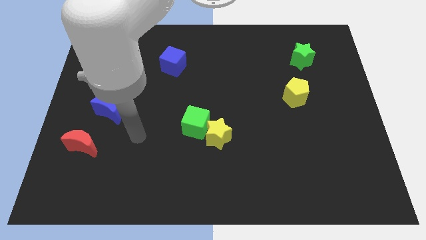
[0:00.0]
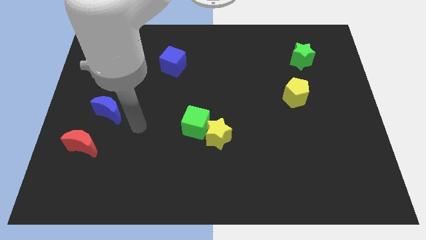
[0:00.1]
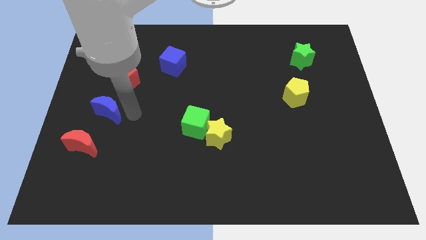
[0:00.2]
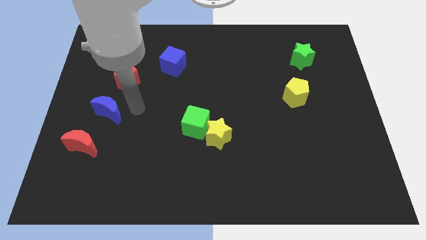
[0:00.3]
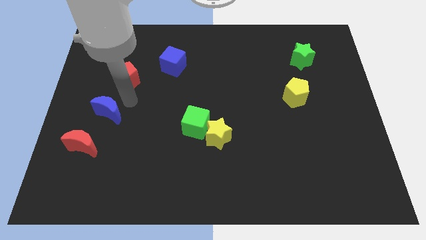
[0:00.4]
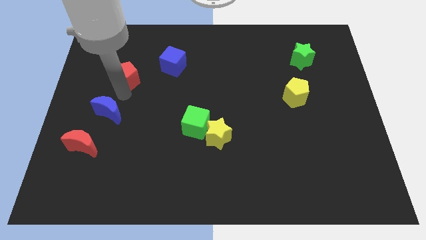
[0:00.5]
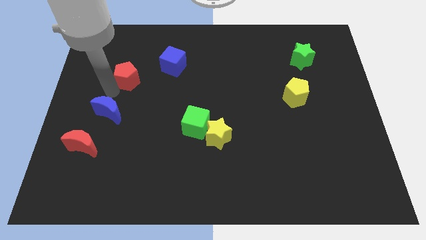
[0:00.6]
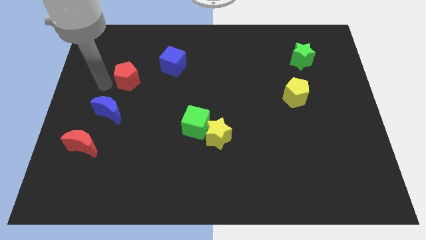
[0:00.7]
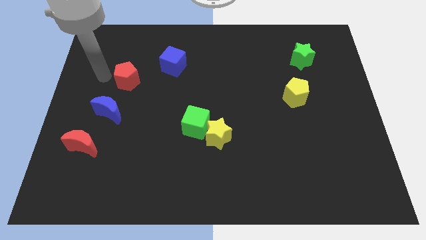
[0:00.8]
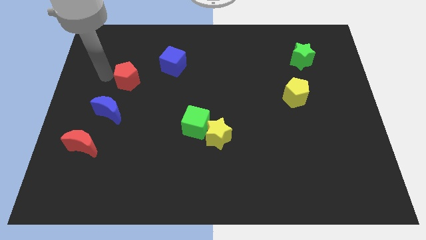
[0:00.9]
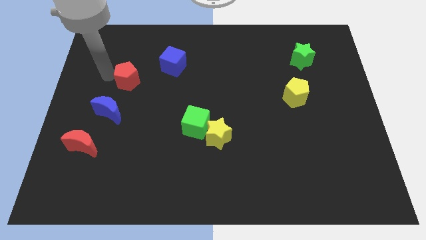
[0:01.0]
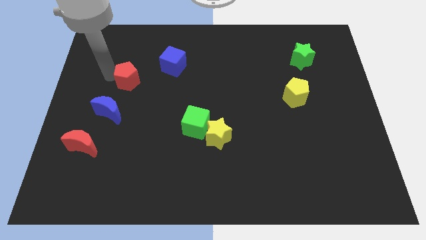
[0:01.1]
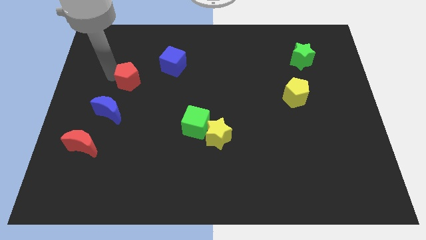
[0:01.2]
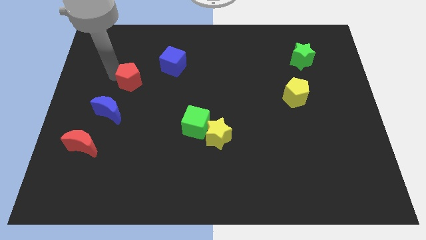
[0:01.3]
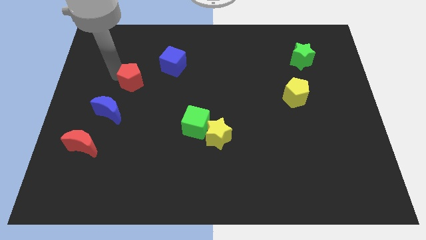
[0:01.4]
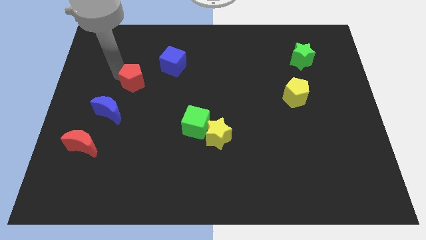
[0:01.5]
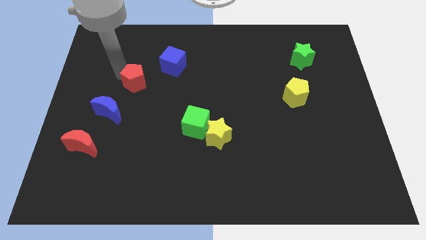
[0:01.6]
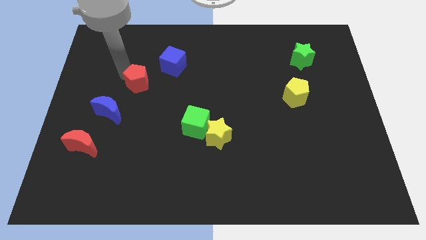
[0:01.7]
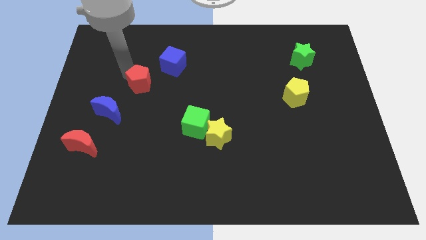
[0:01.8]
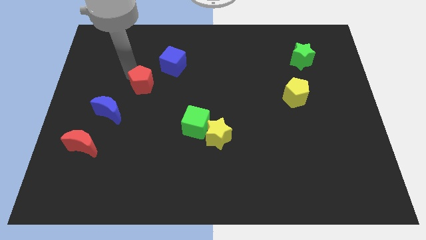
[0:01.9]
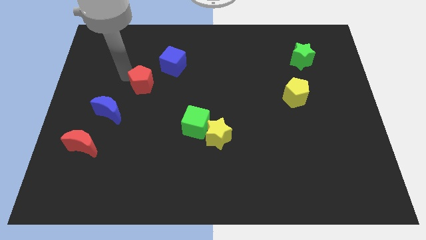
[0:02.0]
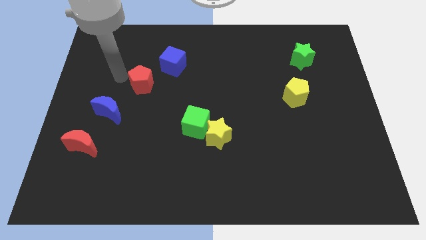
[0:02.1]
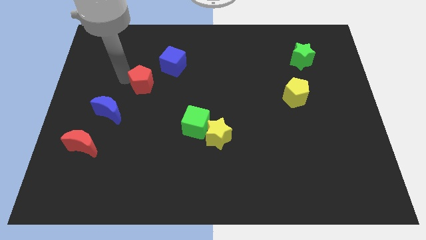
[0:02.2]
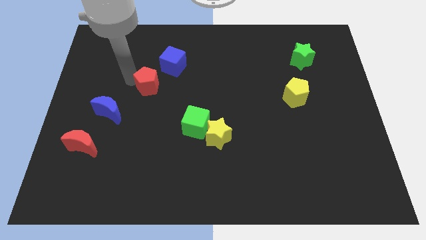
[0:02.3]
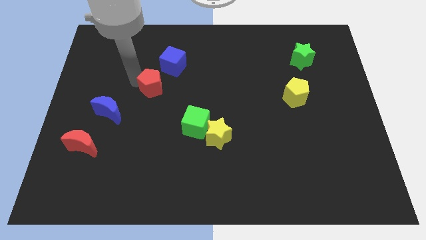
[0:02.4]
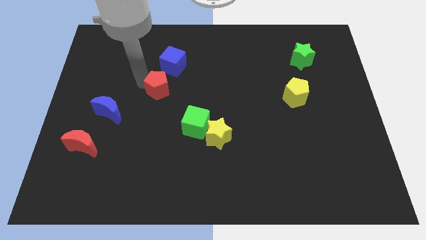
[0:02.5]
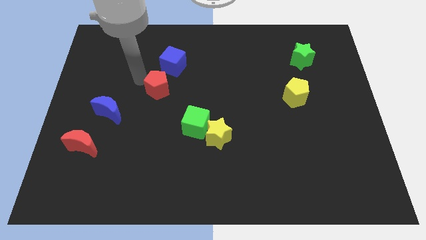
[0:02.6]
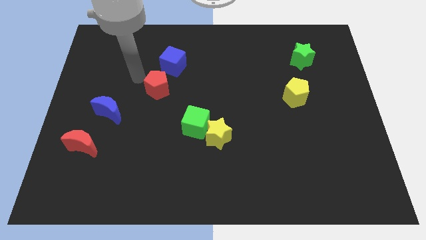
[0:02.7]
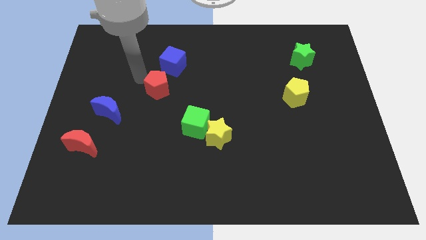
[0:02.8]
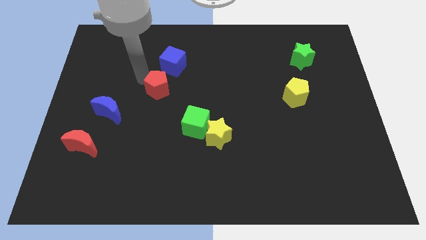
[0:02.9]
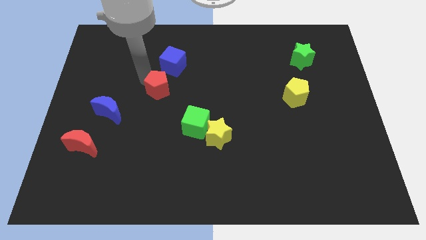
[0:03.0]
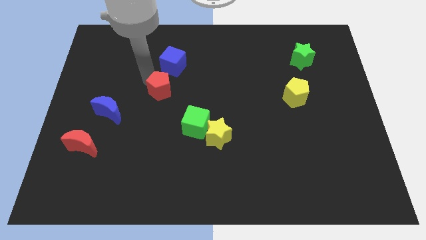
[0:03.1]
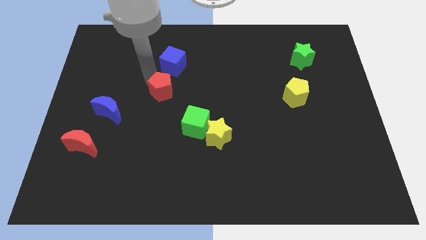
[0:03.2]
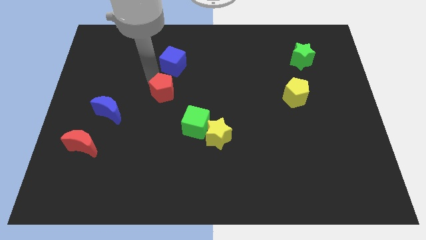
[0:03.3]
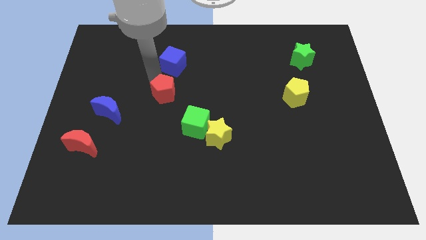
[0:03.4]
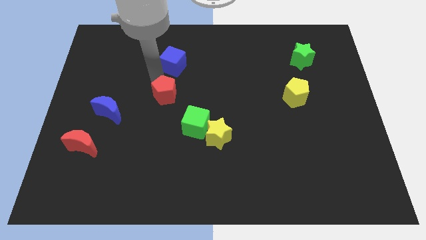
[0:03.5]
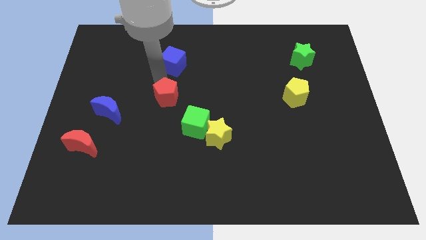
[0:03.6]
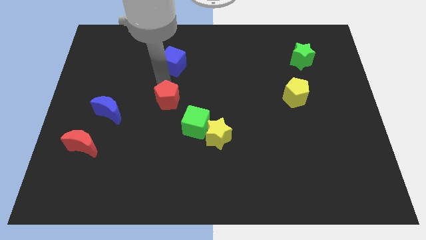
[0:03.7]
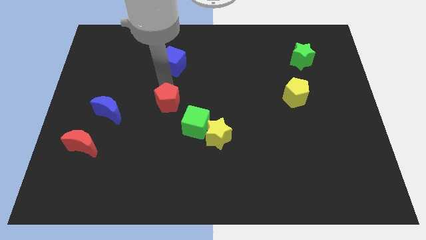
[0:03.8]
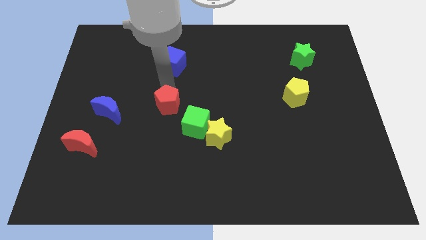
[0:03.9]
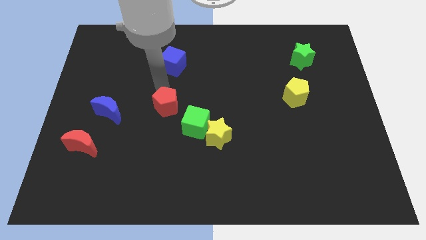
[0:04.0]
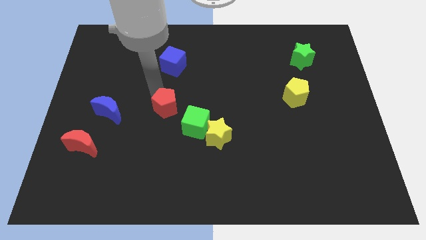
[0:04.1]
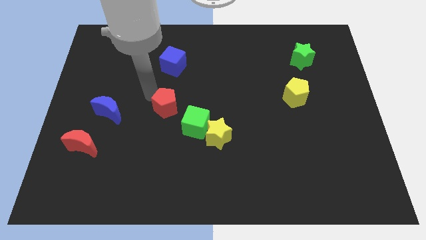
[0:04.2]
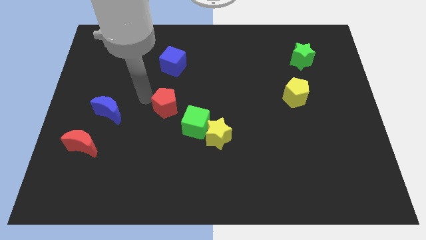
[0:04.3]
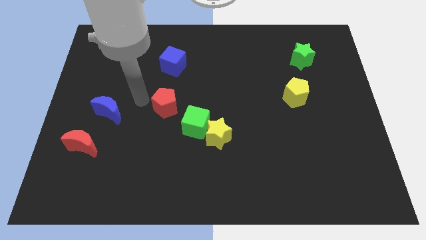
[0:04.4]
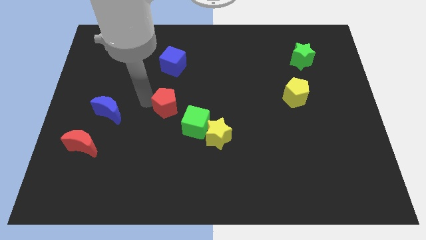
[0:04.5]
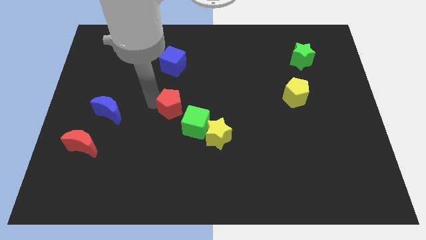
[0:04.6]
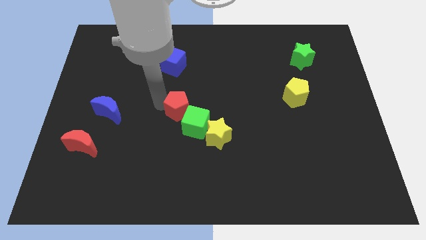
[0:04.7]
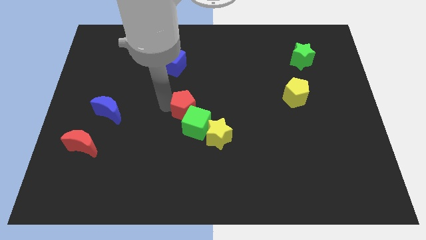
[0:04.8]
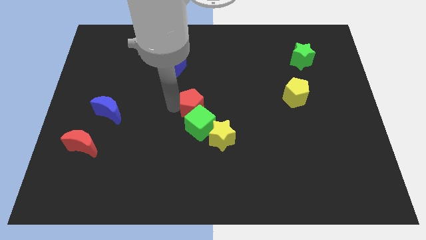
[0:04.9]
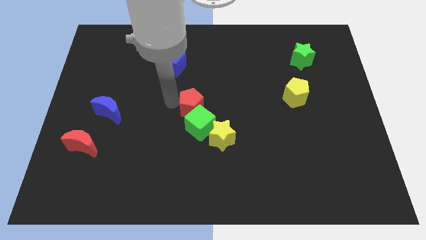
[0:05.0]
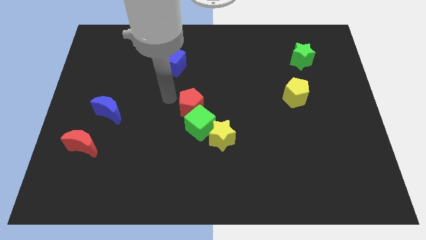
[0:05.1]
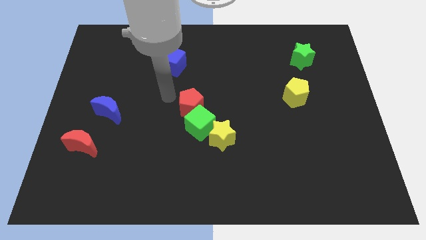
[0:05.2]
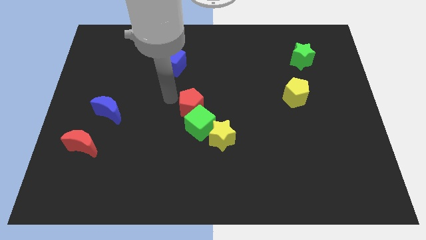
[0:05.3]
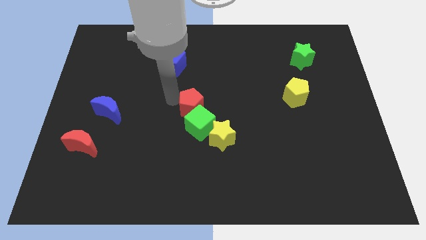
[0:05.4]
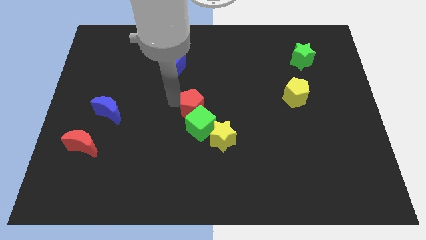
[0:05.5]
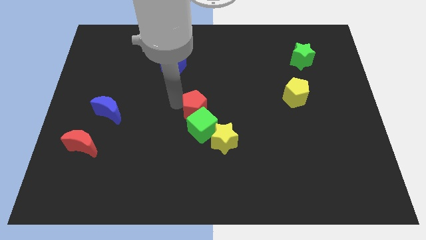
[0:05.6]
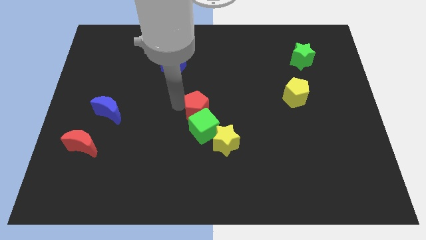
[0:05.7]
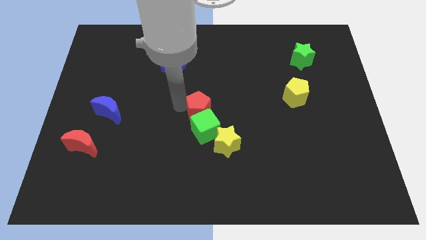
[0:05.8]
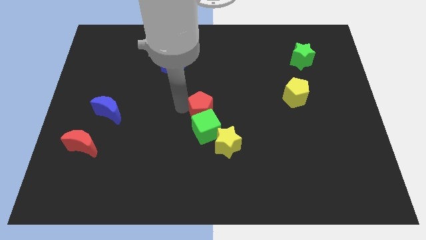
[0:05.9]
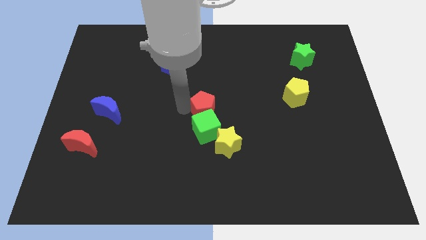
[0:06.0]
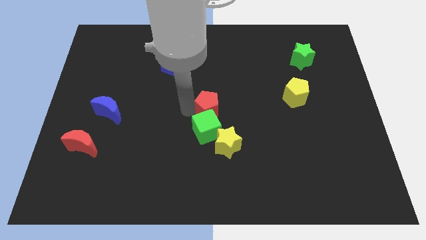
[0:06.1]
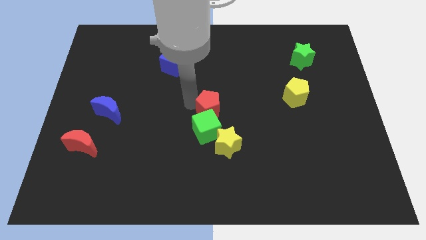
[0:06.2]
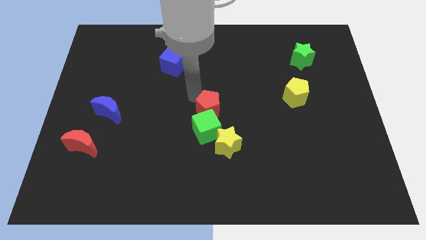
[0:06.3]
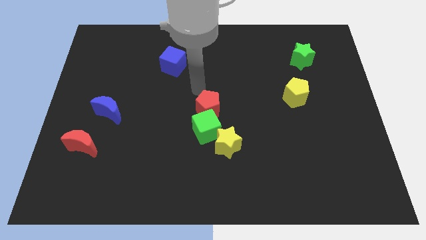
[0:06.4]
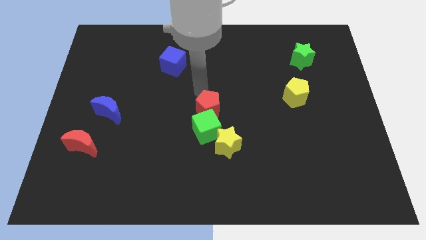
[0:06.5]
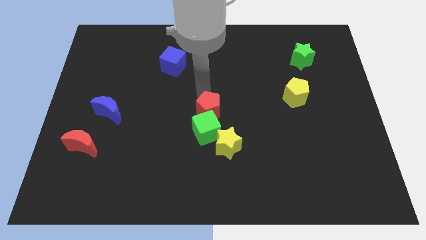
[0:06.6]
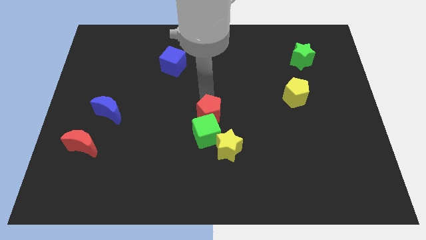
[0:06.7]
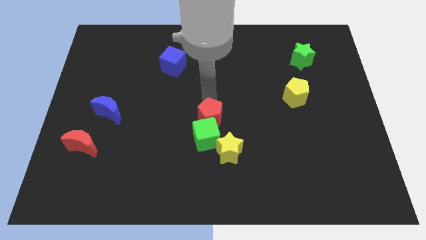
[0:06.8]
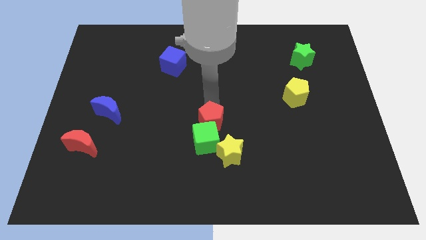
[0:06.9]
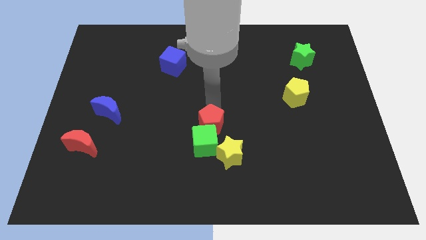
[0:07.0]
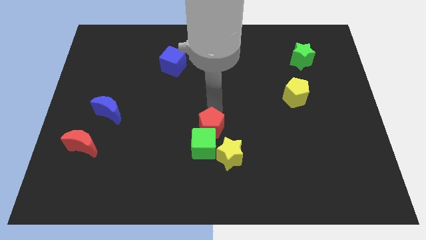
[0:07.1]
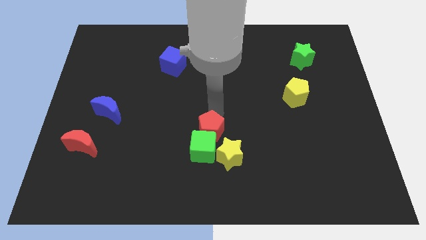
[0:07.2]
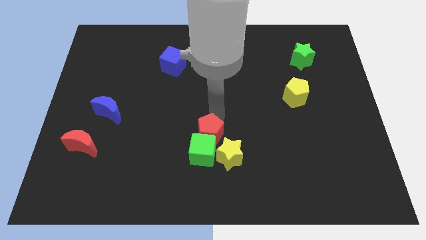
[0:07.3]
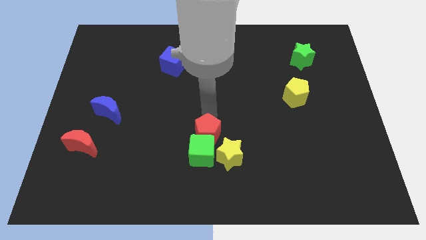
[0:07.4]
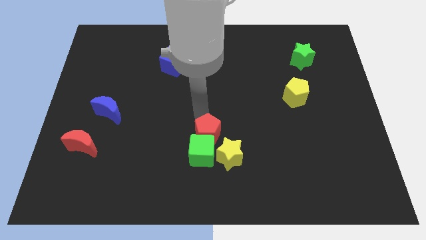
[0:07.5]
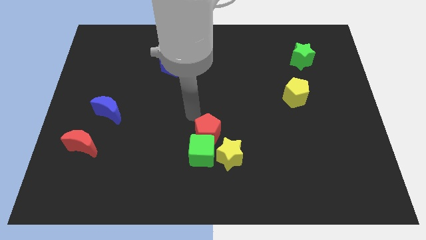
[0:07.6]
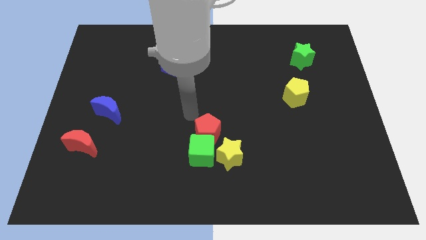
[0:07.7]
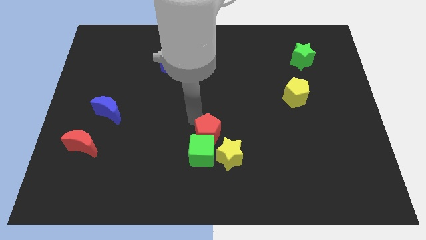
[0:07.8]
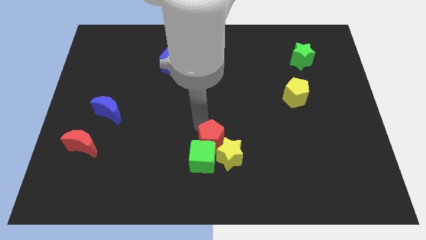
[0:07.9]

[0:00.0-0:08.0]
move the red pentagon to the yellow star
